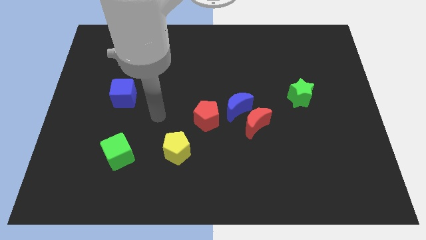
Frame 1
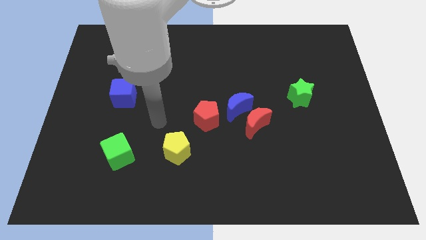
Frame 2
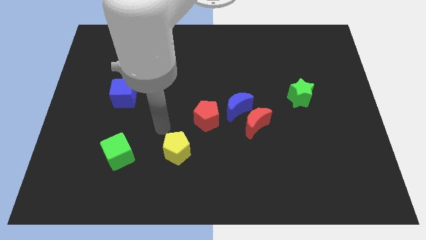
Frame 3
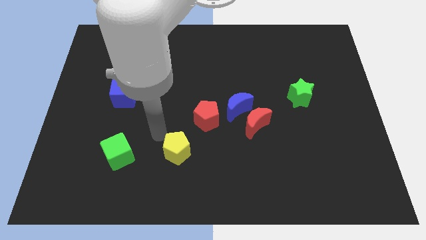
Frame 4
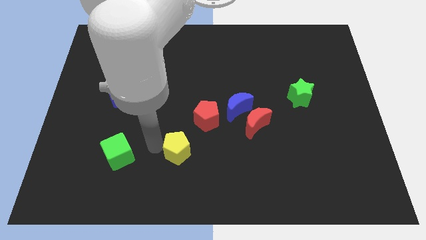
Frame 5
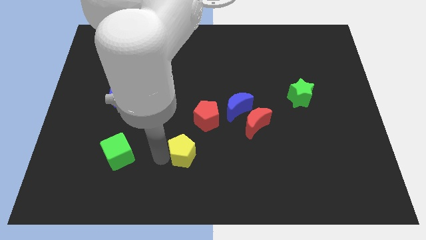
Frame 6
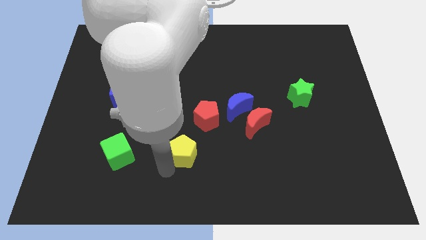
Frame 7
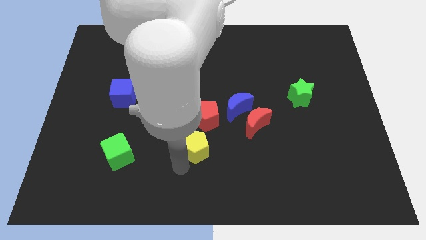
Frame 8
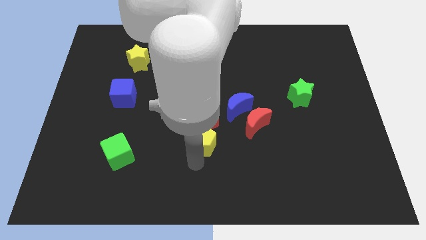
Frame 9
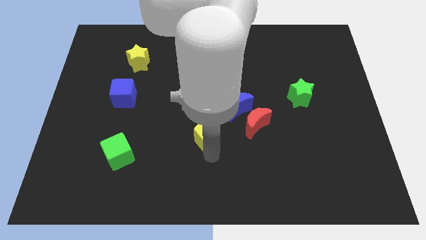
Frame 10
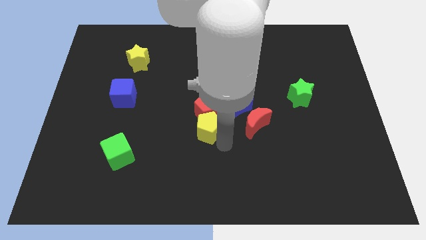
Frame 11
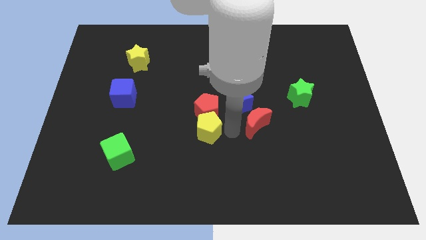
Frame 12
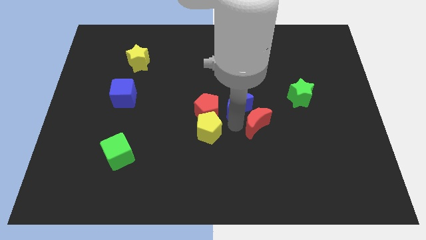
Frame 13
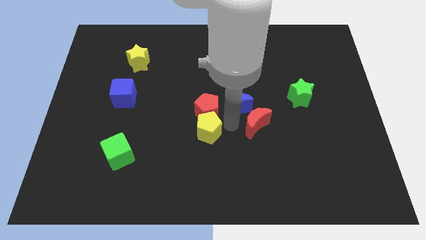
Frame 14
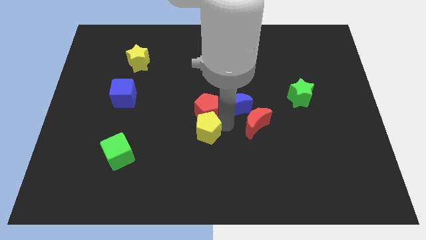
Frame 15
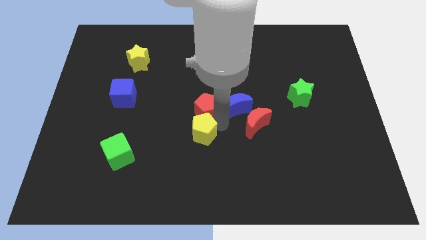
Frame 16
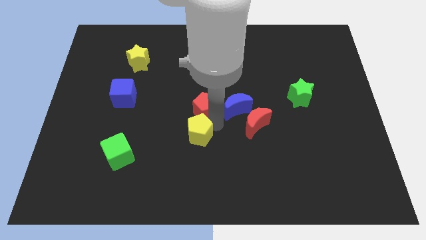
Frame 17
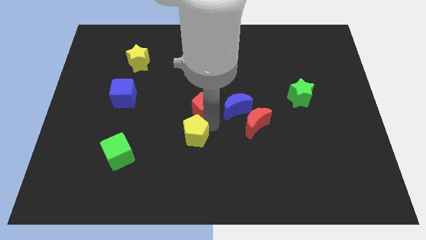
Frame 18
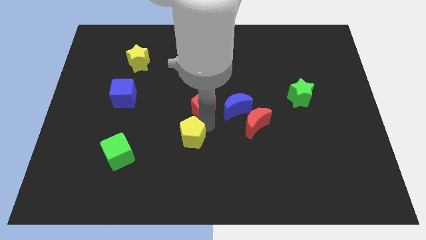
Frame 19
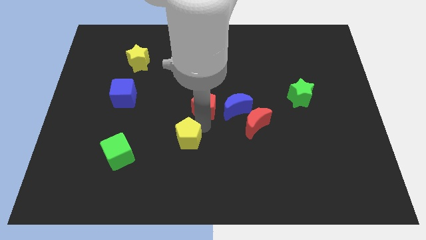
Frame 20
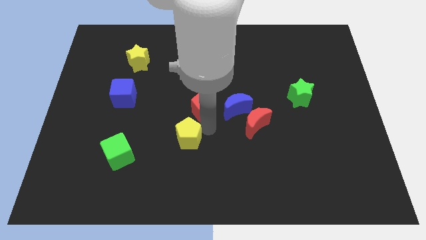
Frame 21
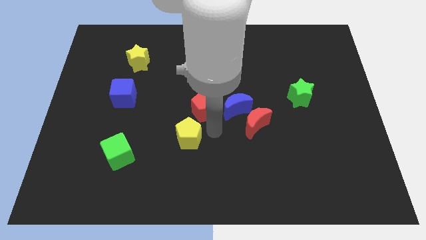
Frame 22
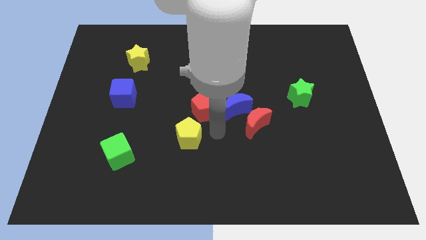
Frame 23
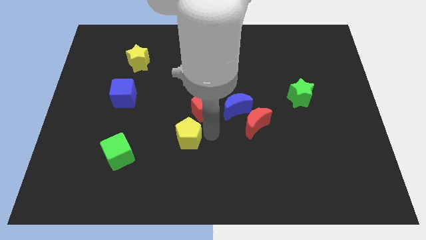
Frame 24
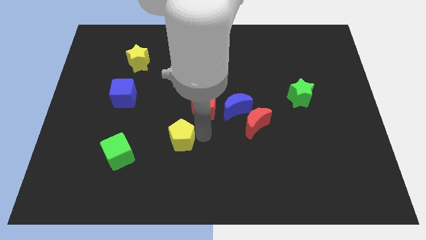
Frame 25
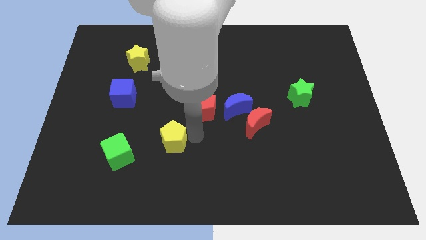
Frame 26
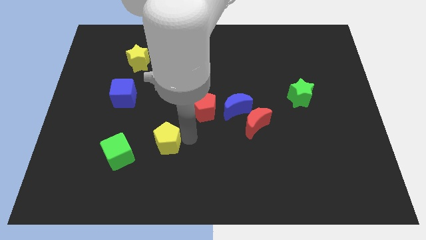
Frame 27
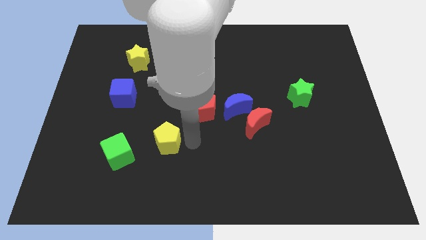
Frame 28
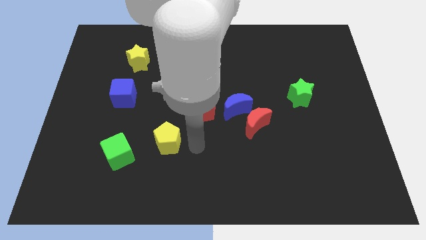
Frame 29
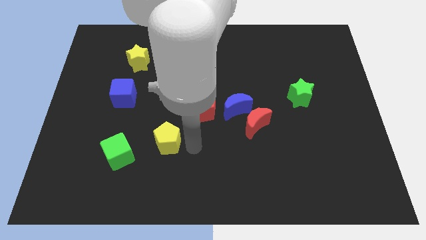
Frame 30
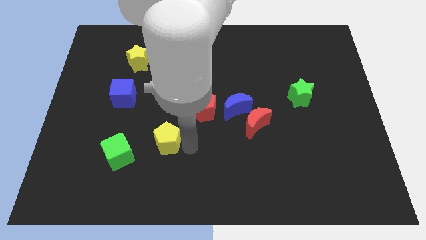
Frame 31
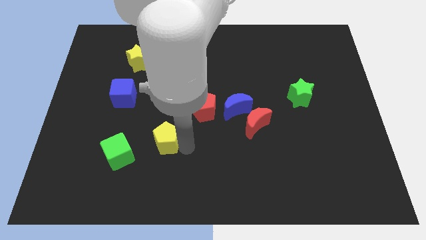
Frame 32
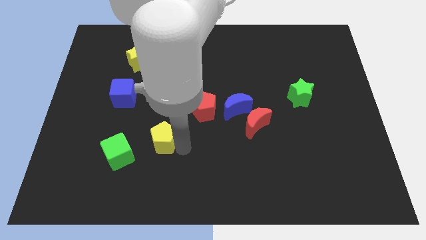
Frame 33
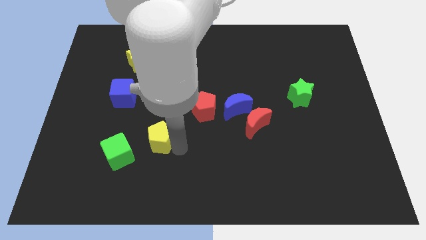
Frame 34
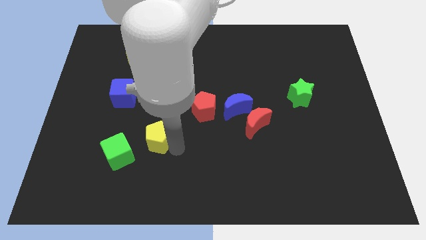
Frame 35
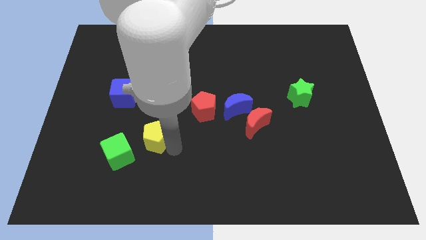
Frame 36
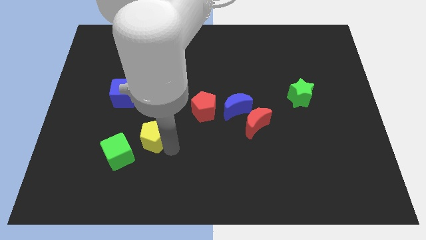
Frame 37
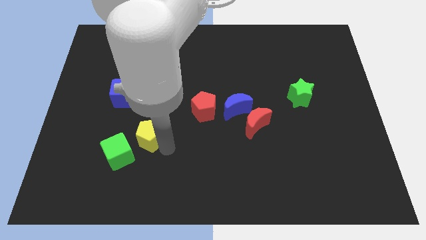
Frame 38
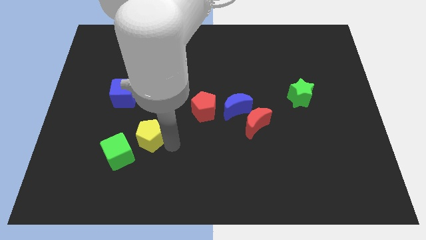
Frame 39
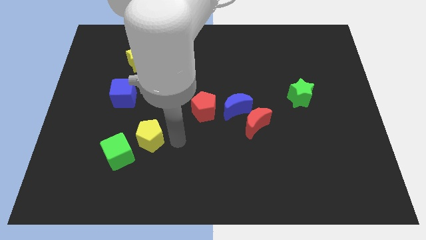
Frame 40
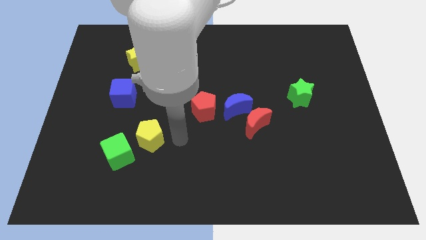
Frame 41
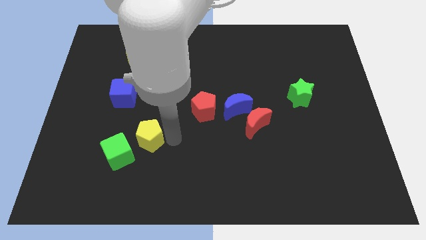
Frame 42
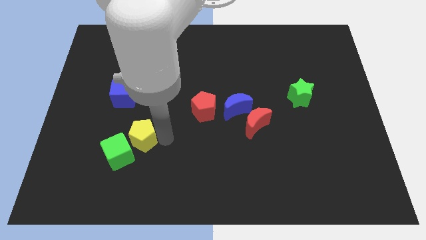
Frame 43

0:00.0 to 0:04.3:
push the yellow pentagon left a little bit

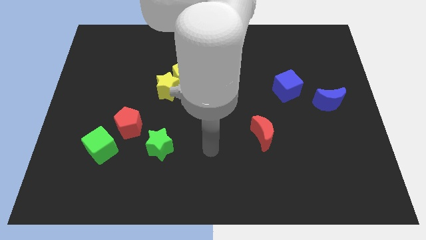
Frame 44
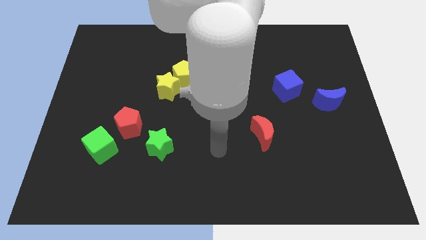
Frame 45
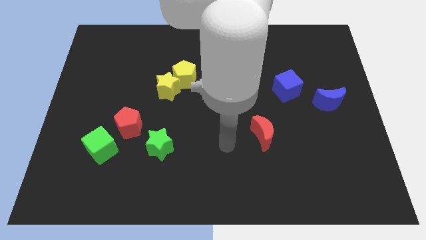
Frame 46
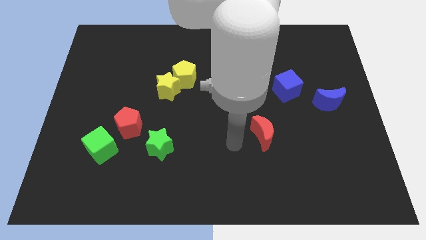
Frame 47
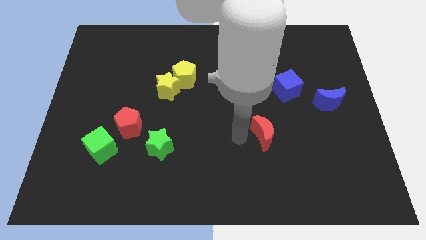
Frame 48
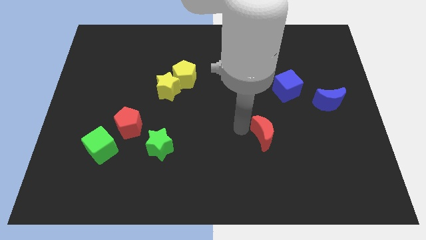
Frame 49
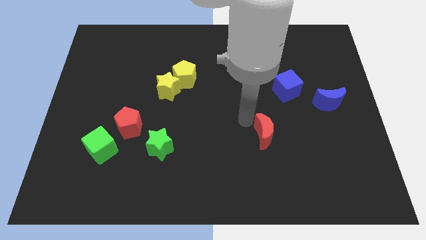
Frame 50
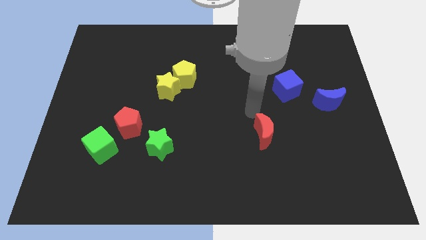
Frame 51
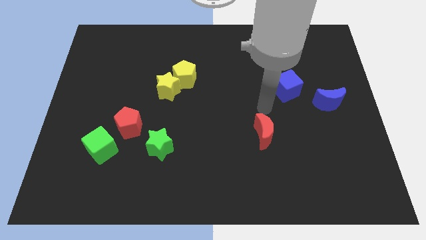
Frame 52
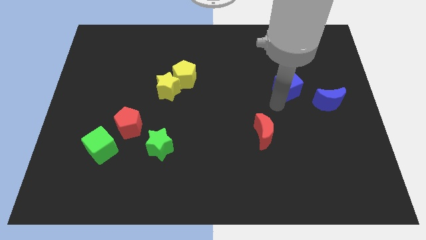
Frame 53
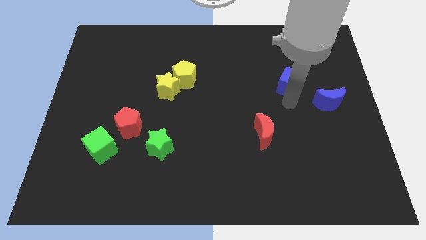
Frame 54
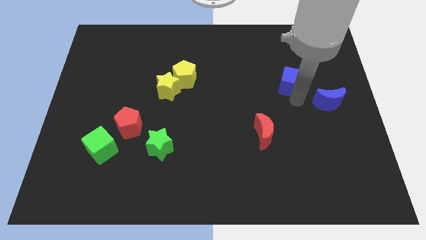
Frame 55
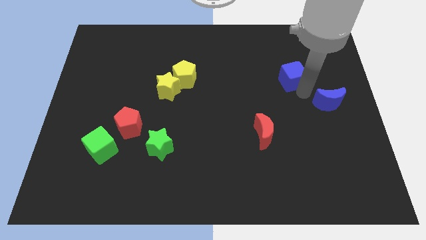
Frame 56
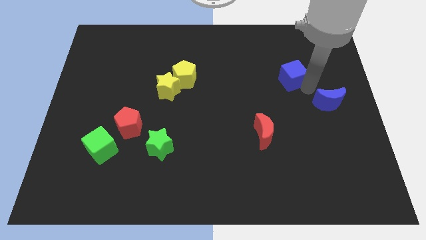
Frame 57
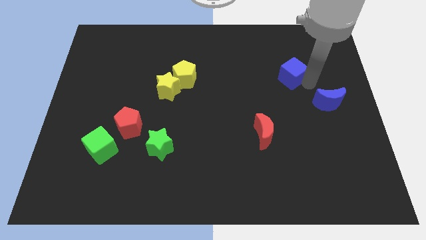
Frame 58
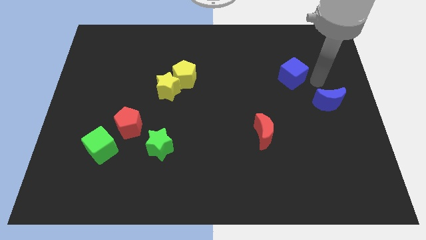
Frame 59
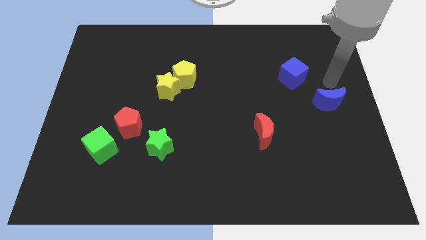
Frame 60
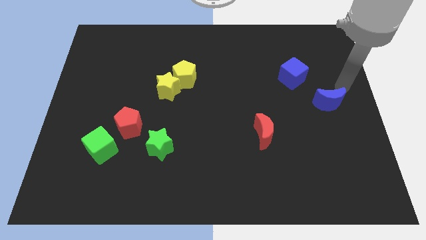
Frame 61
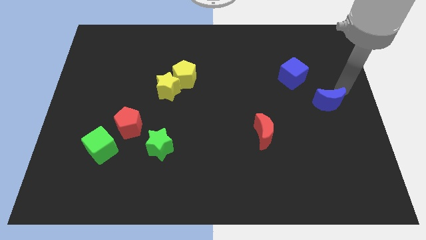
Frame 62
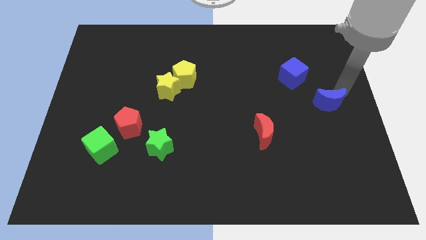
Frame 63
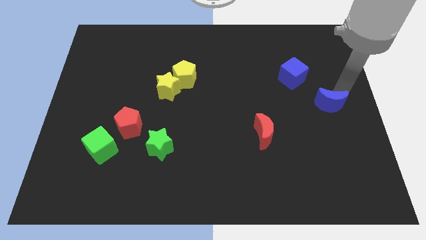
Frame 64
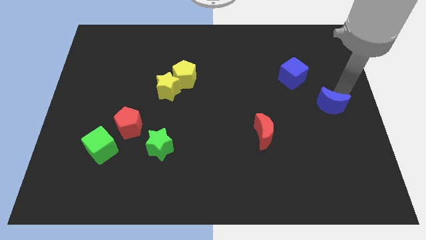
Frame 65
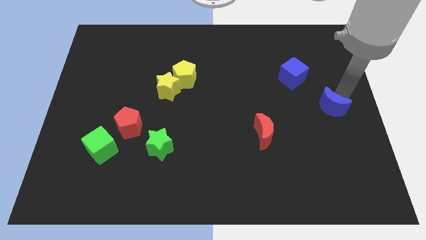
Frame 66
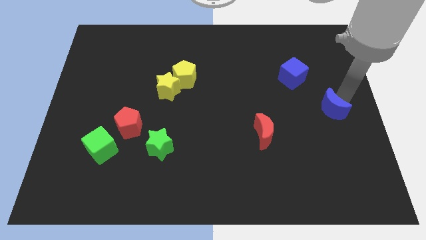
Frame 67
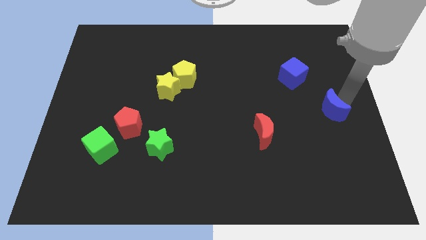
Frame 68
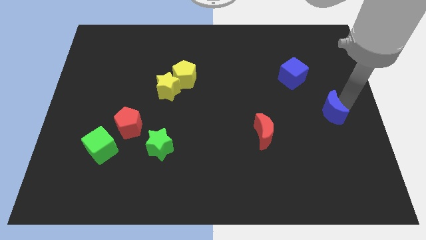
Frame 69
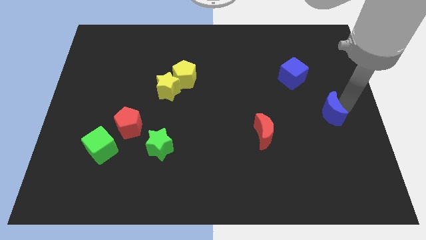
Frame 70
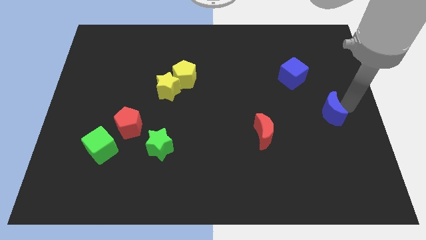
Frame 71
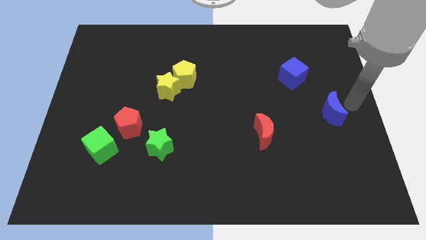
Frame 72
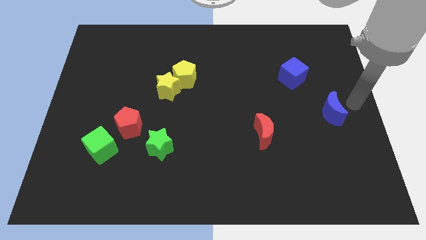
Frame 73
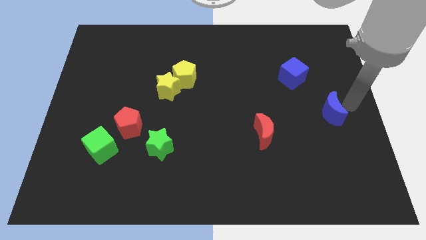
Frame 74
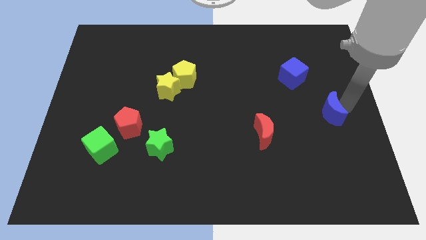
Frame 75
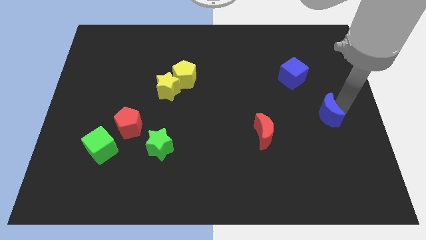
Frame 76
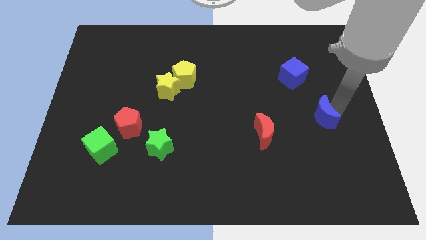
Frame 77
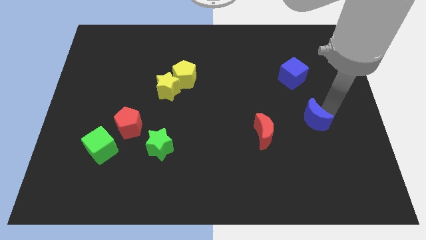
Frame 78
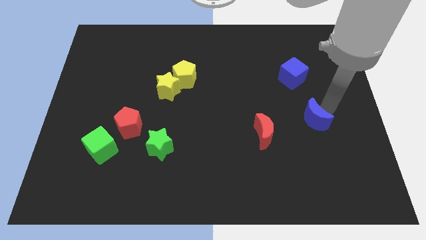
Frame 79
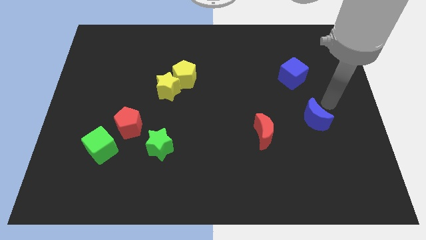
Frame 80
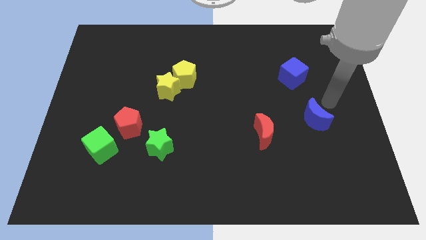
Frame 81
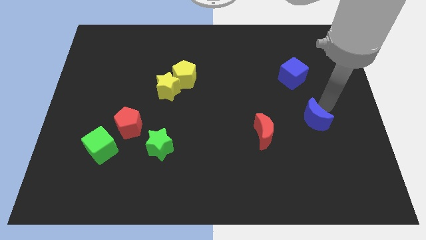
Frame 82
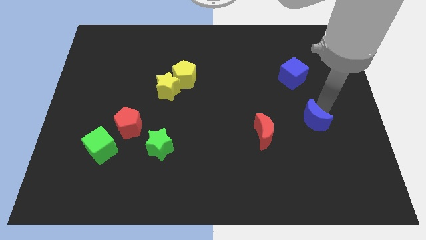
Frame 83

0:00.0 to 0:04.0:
move the blue moon down and left diagonally a little
